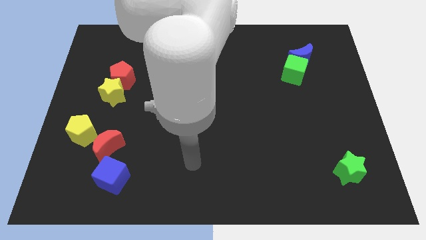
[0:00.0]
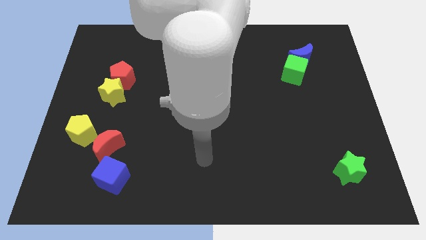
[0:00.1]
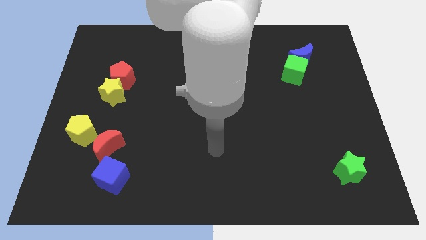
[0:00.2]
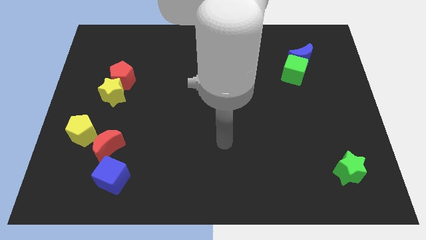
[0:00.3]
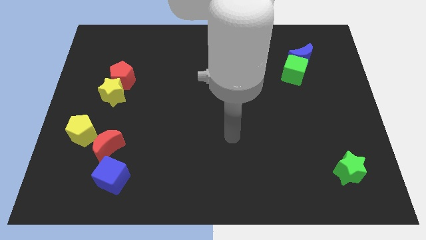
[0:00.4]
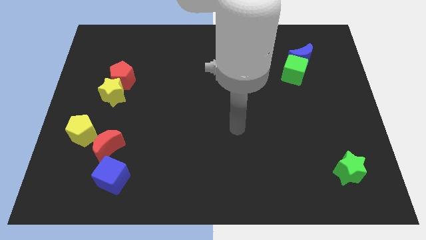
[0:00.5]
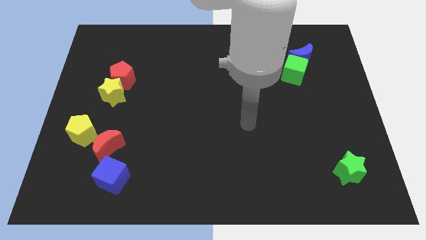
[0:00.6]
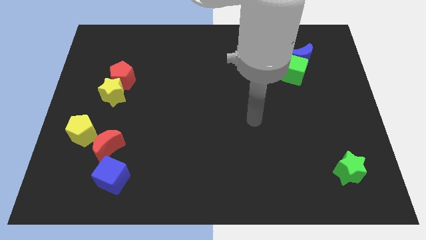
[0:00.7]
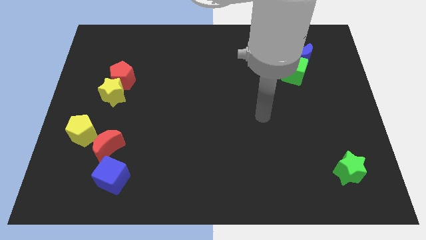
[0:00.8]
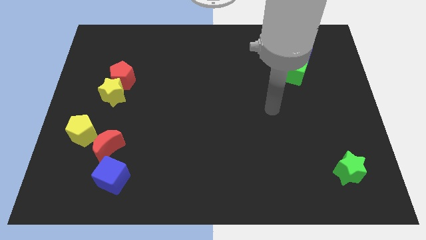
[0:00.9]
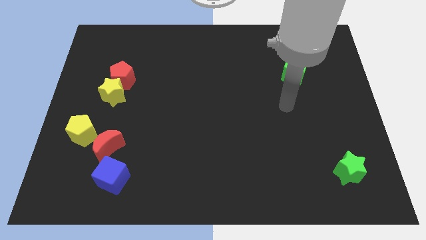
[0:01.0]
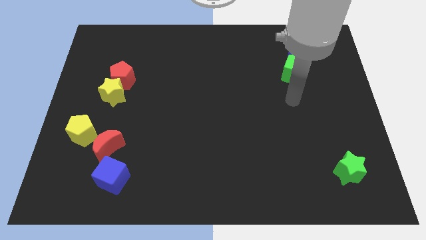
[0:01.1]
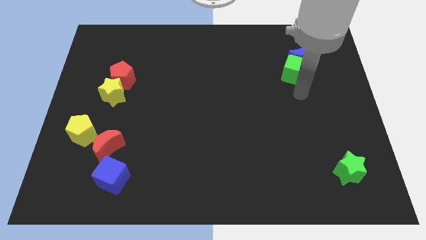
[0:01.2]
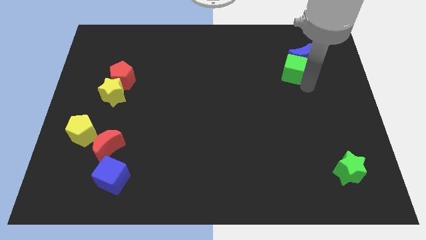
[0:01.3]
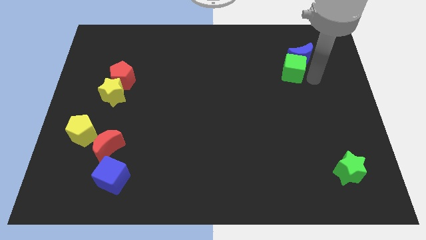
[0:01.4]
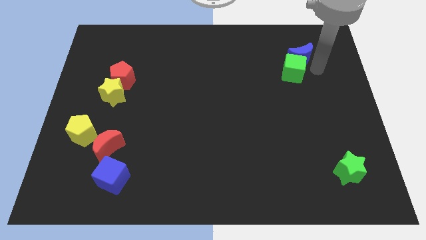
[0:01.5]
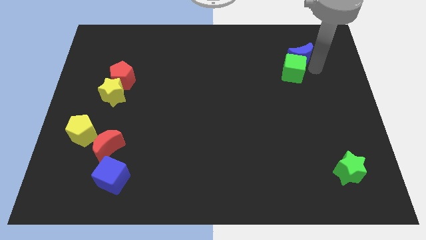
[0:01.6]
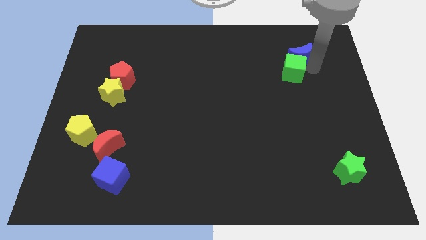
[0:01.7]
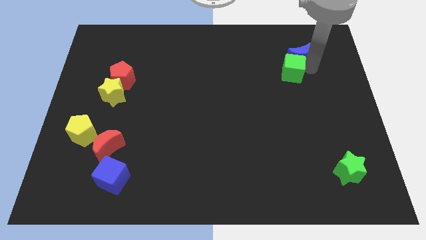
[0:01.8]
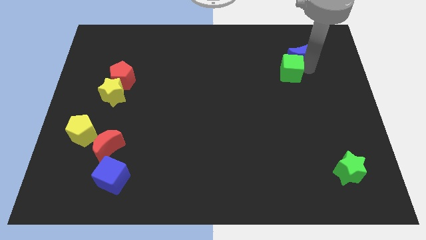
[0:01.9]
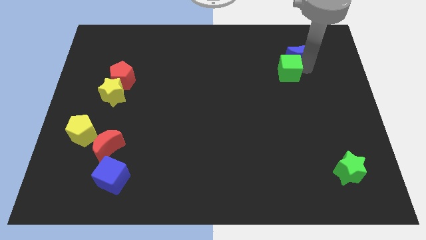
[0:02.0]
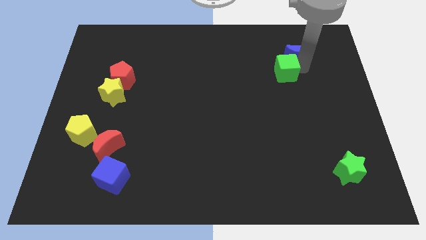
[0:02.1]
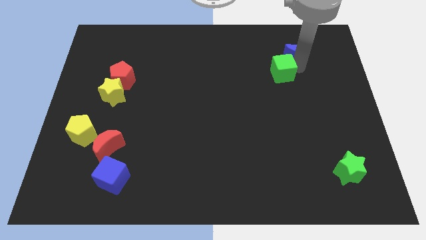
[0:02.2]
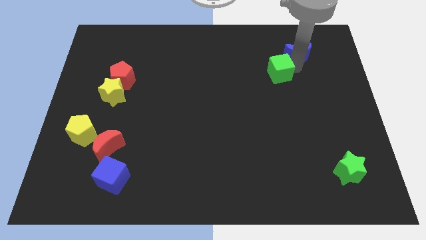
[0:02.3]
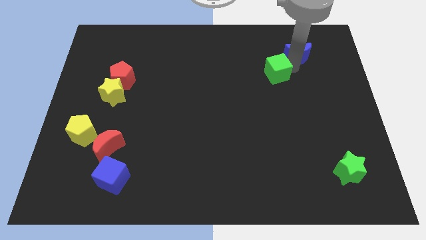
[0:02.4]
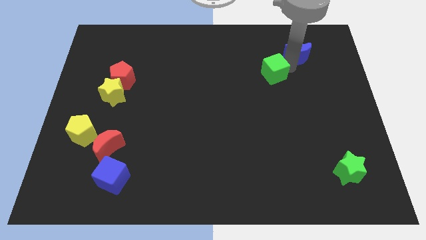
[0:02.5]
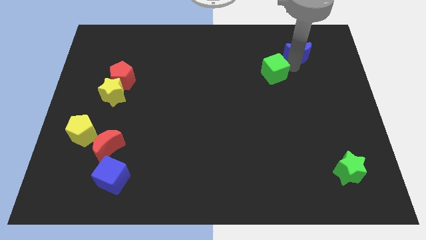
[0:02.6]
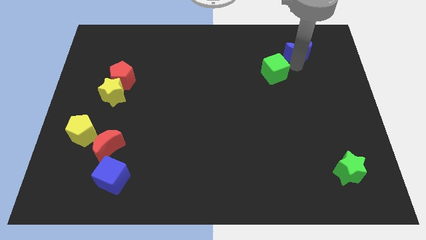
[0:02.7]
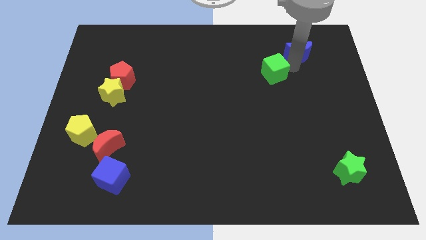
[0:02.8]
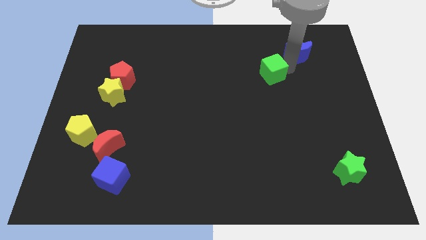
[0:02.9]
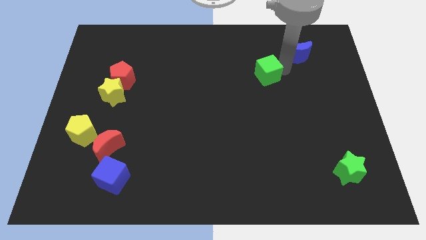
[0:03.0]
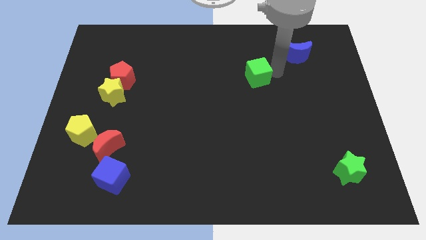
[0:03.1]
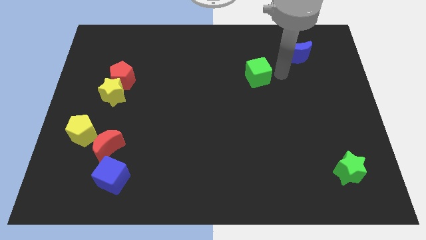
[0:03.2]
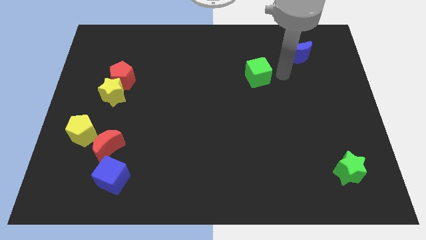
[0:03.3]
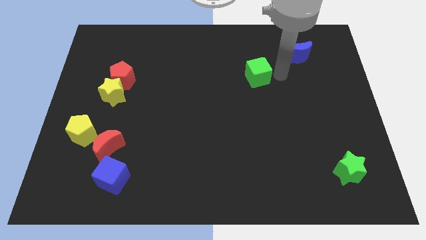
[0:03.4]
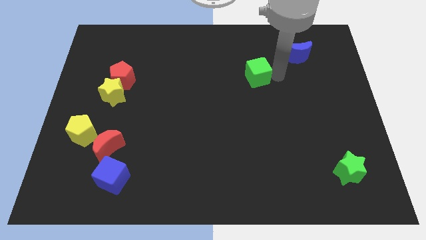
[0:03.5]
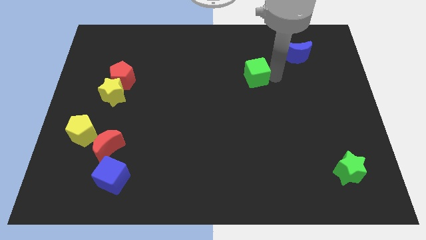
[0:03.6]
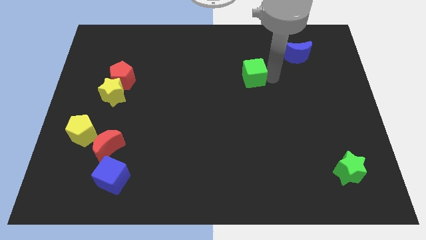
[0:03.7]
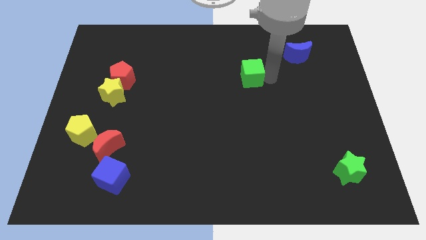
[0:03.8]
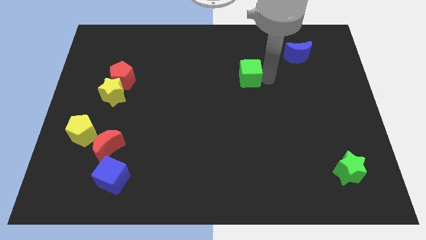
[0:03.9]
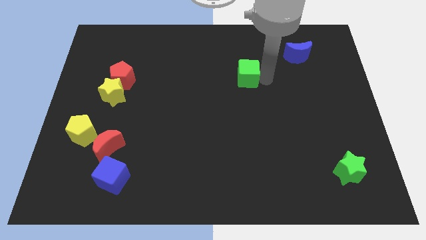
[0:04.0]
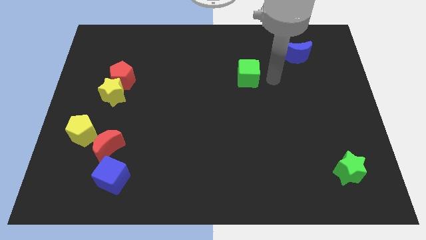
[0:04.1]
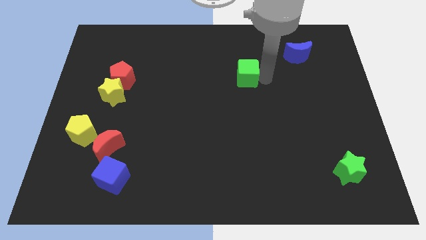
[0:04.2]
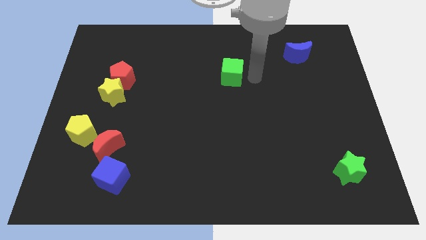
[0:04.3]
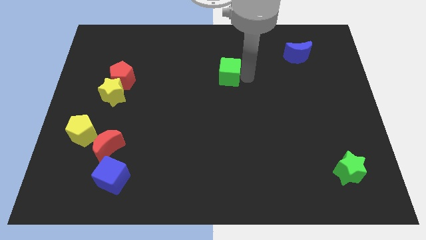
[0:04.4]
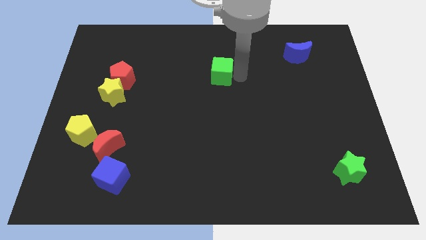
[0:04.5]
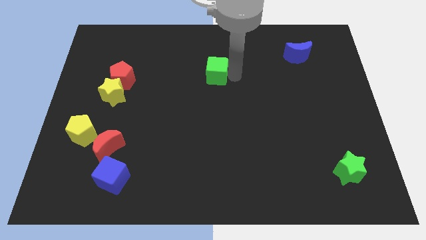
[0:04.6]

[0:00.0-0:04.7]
move the green cube to the left

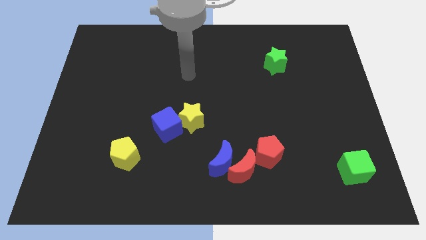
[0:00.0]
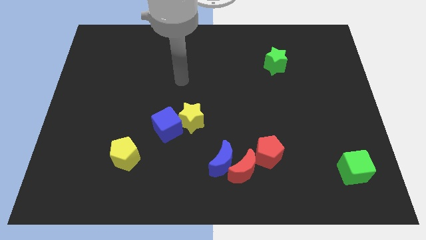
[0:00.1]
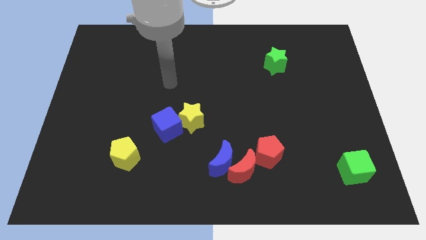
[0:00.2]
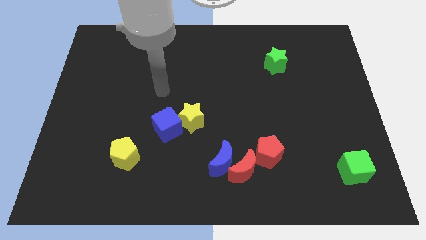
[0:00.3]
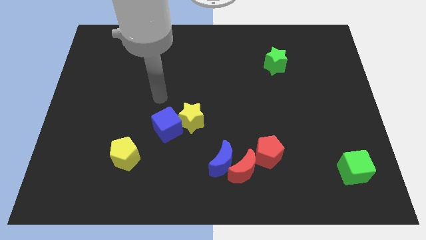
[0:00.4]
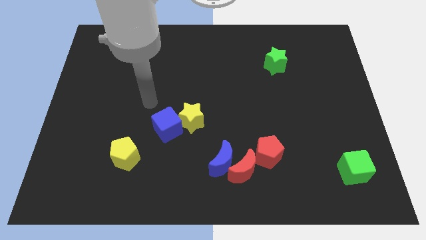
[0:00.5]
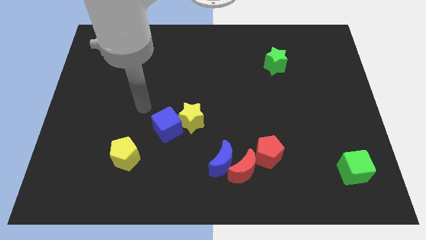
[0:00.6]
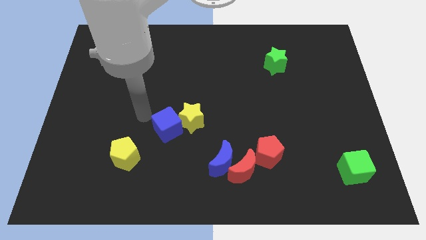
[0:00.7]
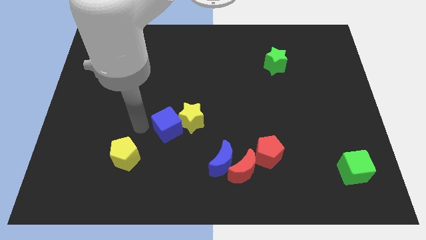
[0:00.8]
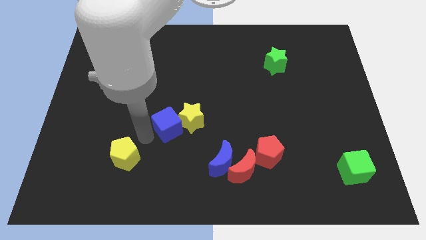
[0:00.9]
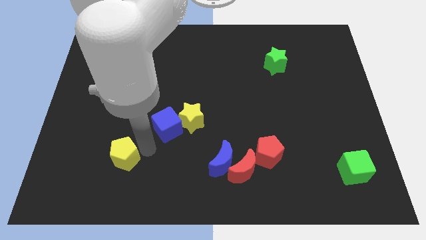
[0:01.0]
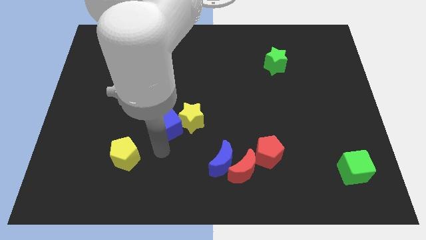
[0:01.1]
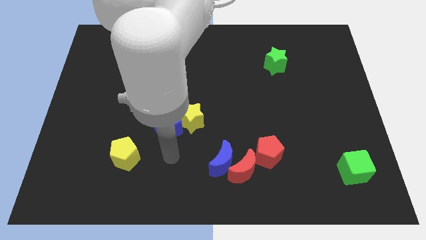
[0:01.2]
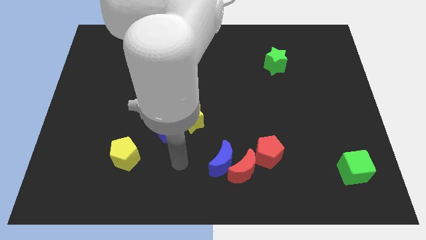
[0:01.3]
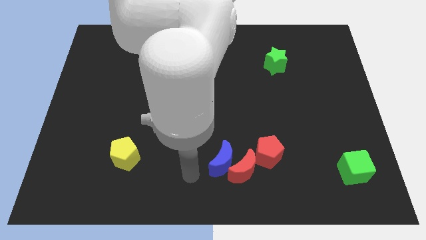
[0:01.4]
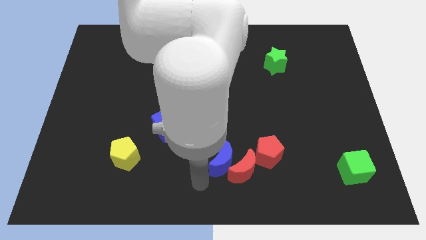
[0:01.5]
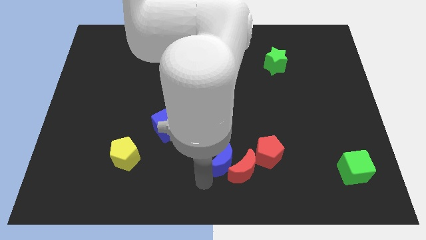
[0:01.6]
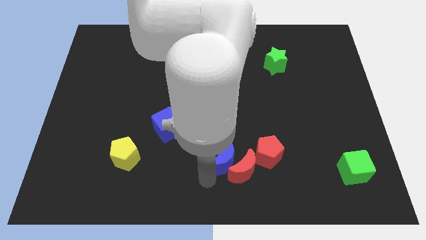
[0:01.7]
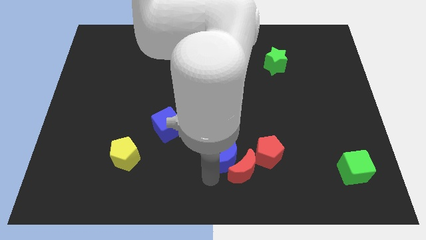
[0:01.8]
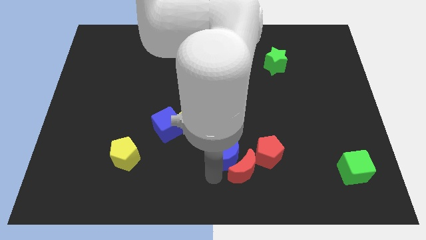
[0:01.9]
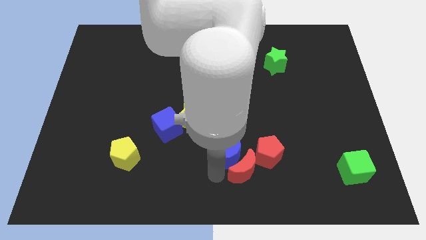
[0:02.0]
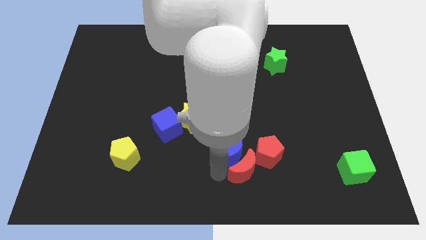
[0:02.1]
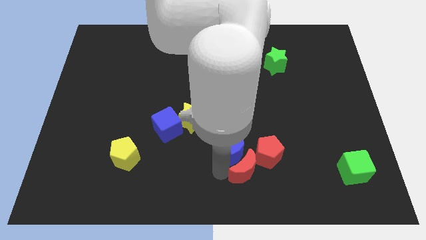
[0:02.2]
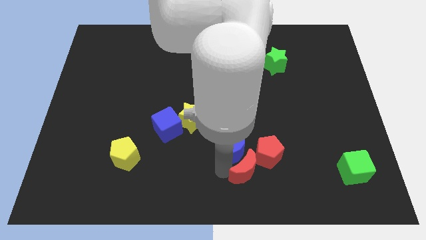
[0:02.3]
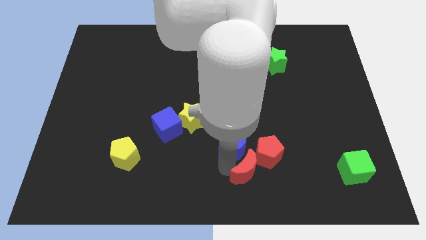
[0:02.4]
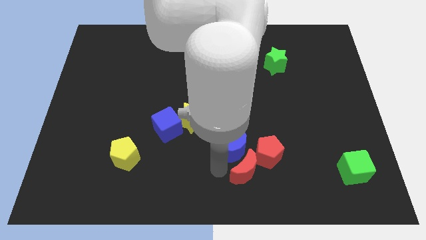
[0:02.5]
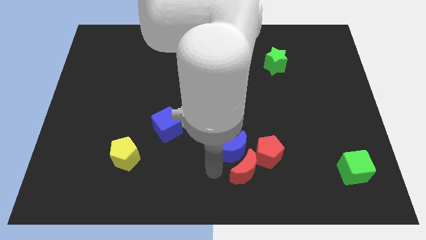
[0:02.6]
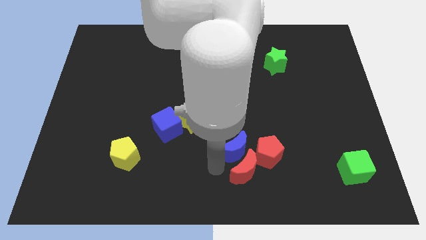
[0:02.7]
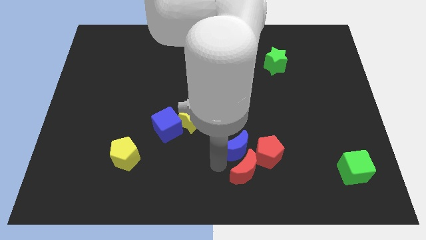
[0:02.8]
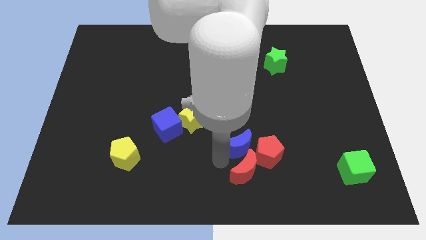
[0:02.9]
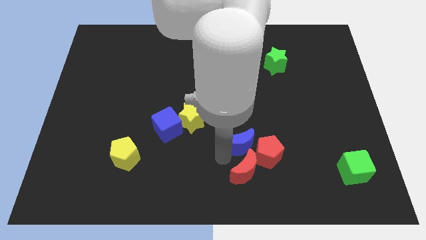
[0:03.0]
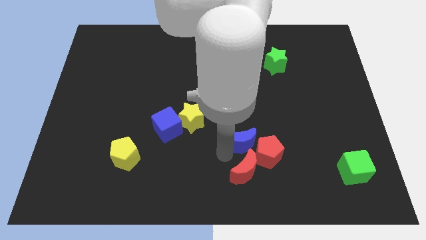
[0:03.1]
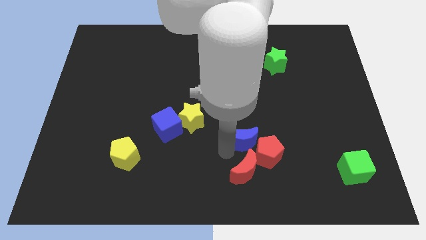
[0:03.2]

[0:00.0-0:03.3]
slide the blue moon slightly diagonally up and right
